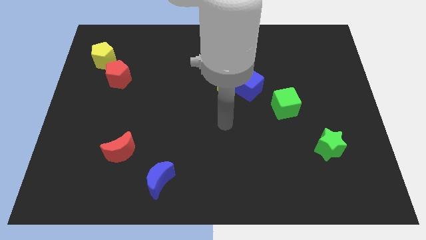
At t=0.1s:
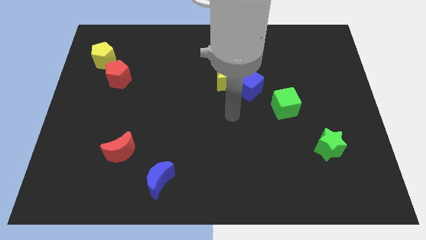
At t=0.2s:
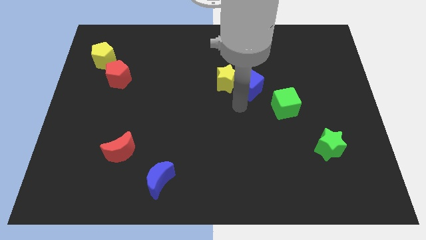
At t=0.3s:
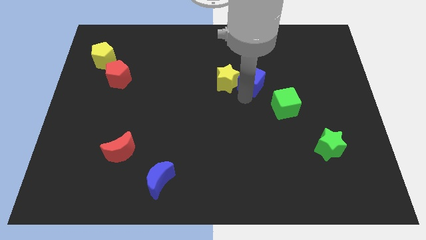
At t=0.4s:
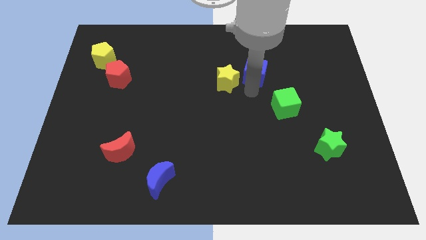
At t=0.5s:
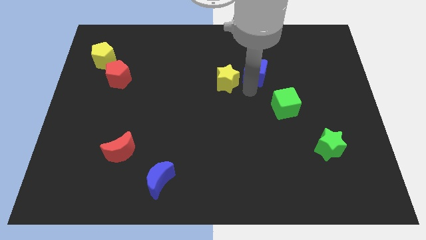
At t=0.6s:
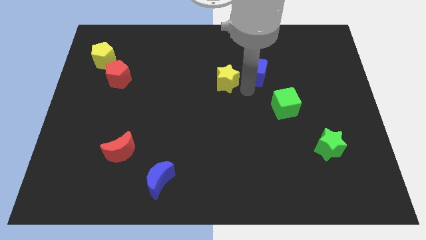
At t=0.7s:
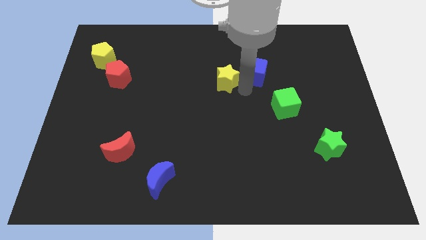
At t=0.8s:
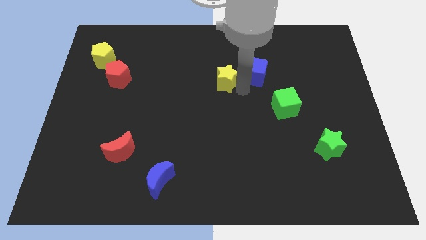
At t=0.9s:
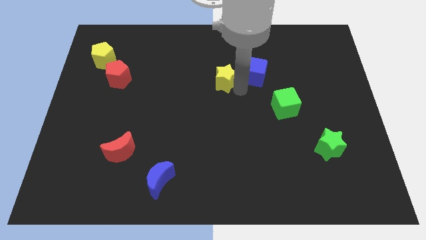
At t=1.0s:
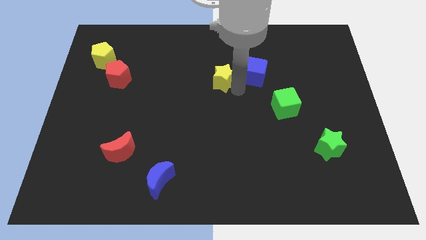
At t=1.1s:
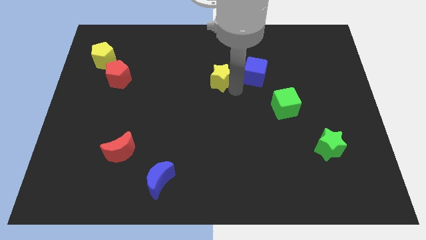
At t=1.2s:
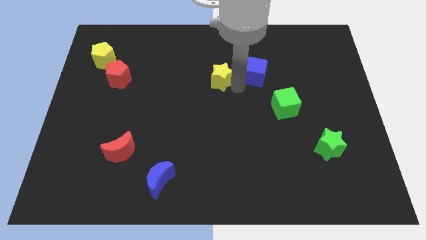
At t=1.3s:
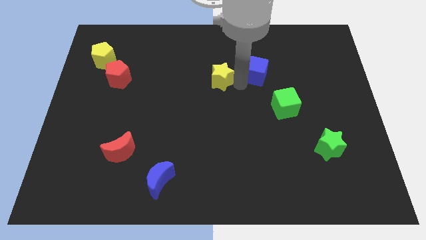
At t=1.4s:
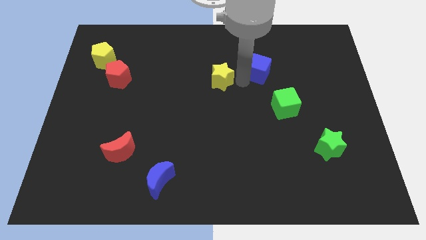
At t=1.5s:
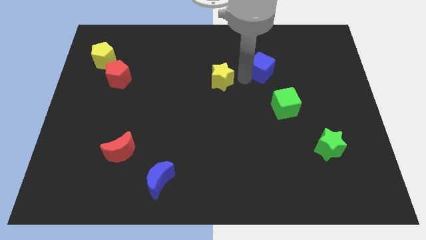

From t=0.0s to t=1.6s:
move the yellow star away from the blue cube

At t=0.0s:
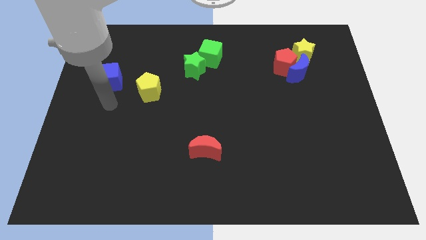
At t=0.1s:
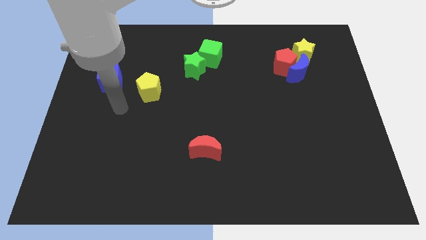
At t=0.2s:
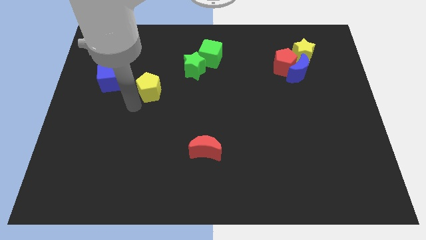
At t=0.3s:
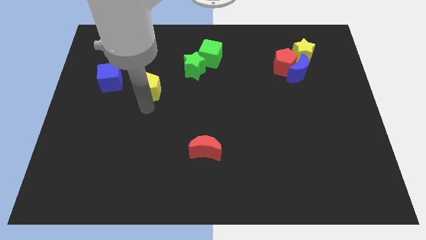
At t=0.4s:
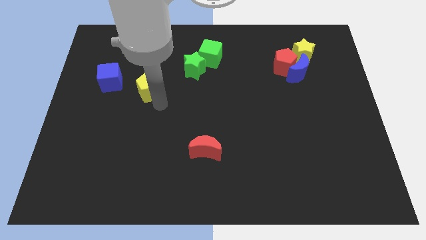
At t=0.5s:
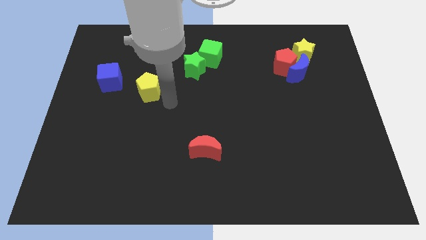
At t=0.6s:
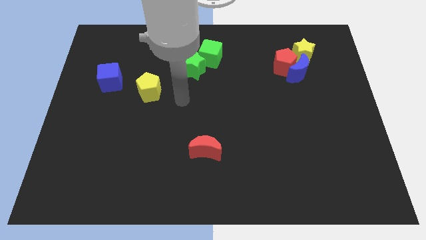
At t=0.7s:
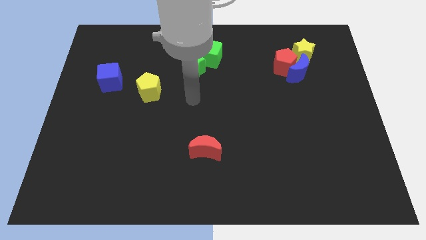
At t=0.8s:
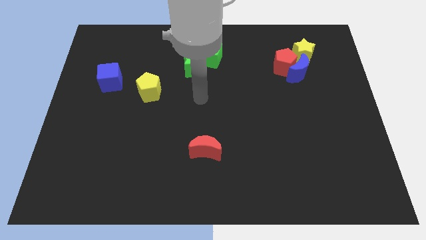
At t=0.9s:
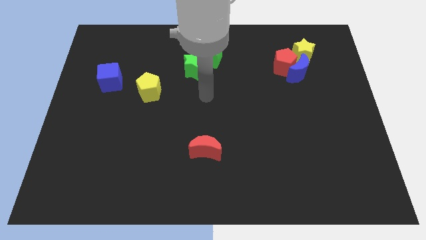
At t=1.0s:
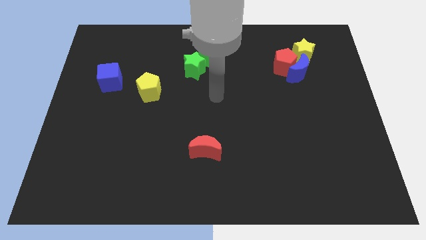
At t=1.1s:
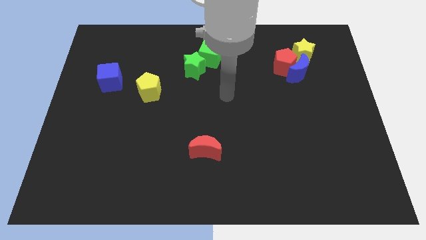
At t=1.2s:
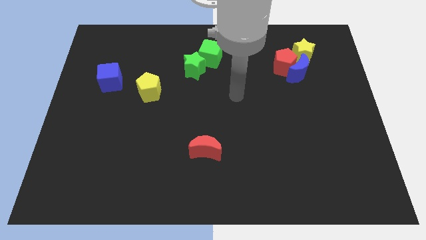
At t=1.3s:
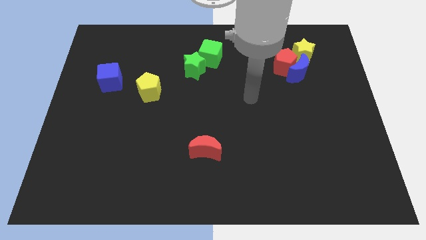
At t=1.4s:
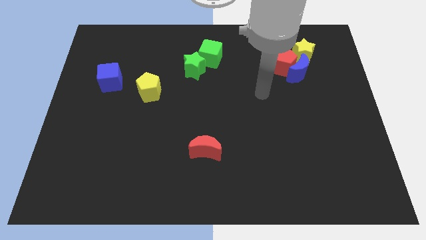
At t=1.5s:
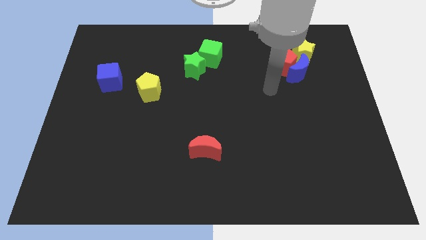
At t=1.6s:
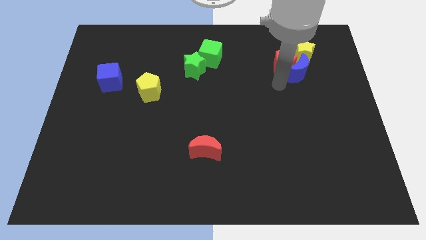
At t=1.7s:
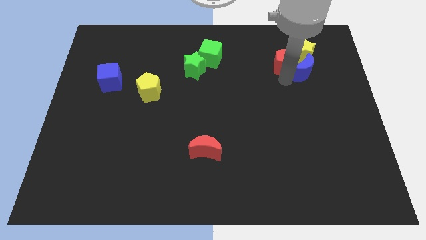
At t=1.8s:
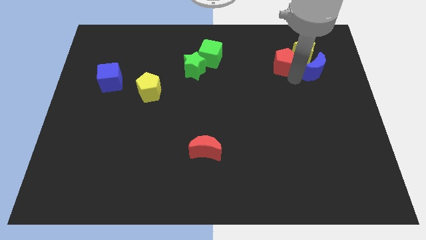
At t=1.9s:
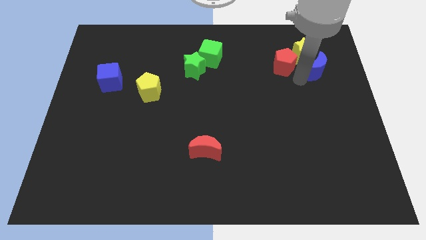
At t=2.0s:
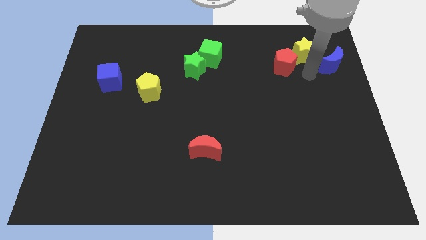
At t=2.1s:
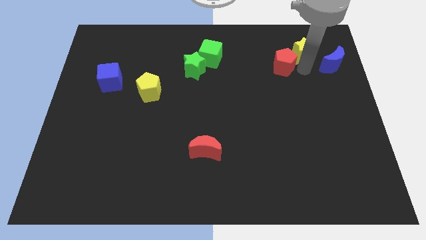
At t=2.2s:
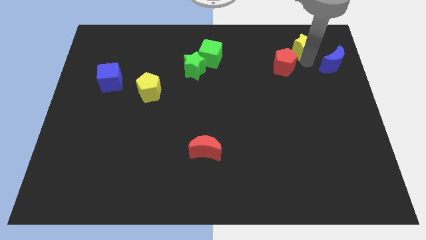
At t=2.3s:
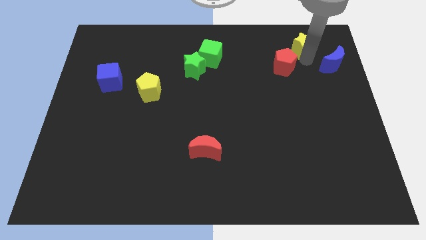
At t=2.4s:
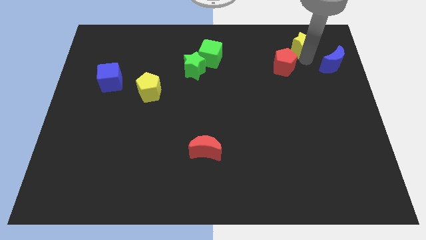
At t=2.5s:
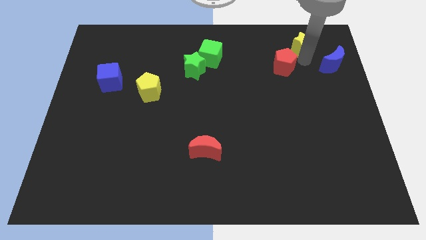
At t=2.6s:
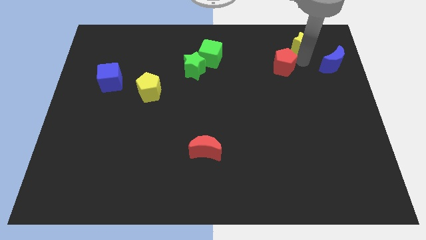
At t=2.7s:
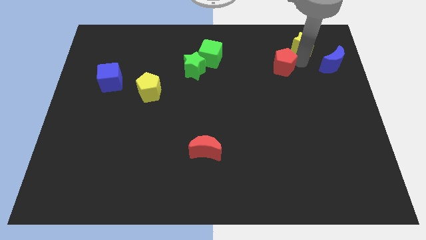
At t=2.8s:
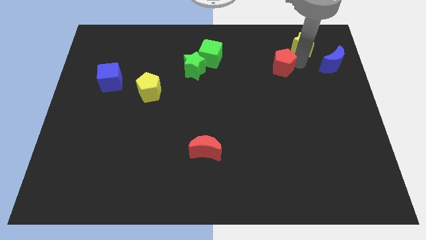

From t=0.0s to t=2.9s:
move the red pentagon away from the blue moon and yellow star

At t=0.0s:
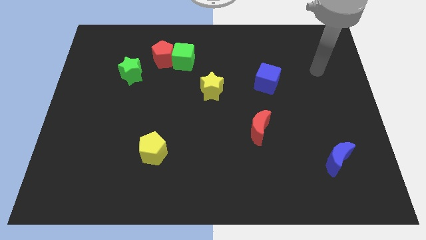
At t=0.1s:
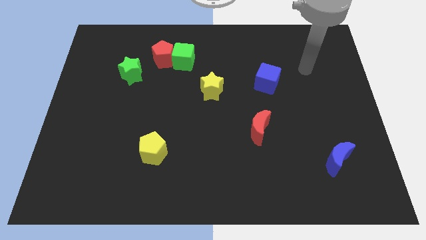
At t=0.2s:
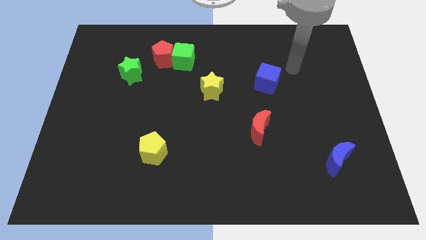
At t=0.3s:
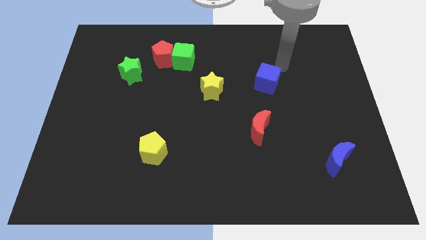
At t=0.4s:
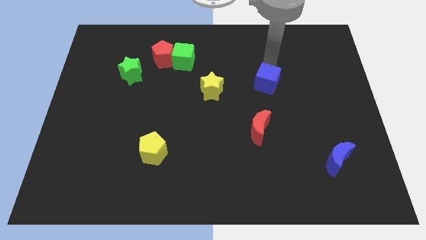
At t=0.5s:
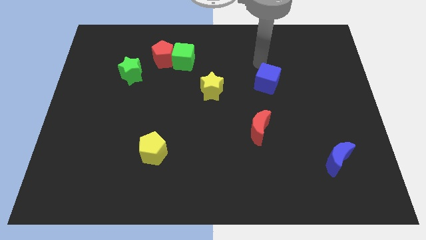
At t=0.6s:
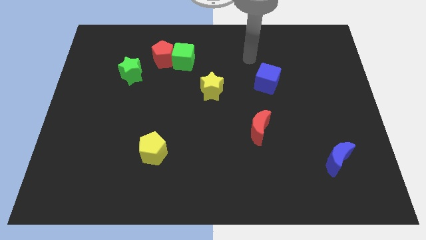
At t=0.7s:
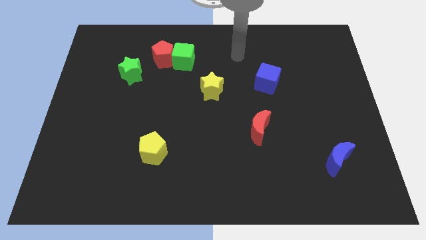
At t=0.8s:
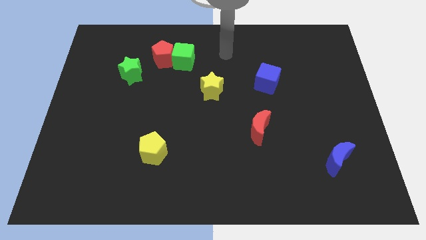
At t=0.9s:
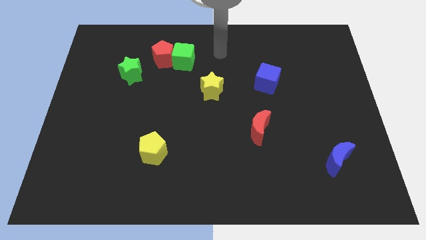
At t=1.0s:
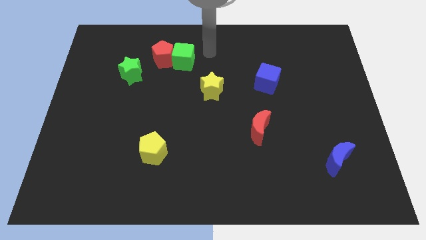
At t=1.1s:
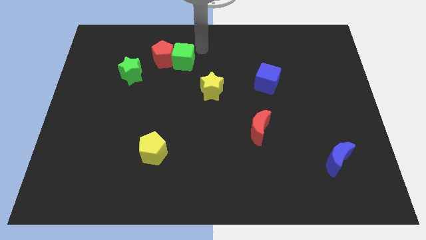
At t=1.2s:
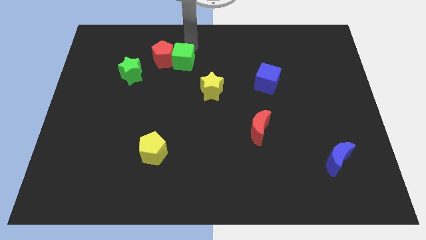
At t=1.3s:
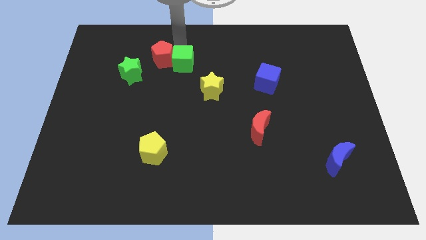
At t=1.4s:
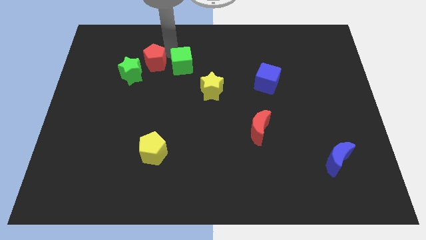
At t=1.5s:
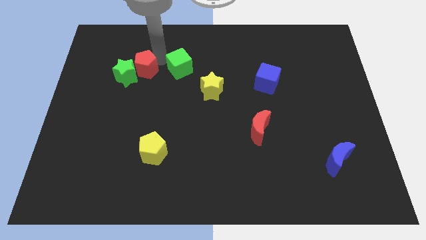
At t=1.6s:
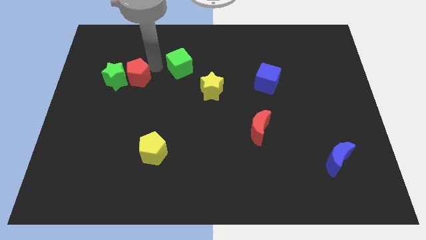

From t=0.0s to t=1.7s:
separate the green cube from the red pentagon

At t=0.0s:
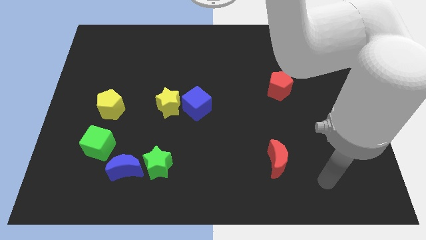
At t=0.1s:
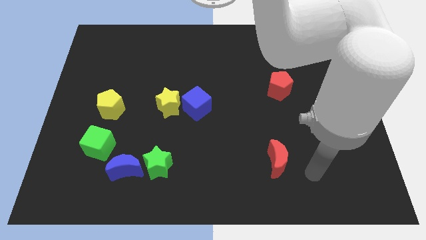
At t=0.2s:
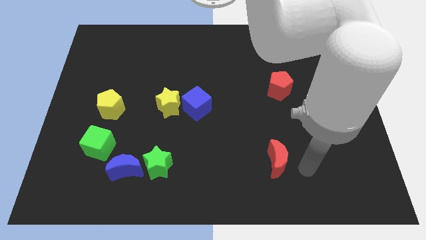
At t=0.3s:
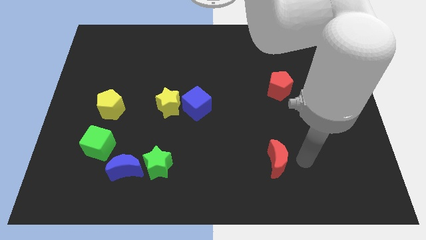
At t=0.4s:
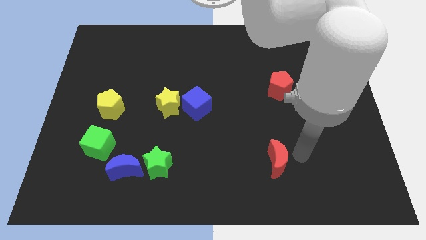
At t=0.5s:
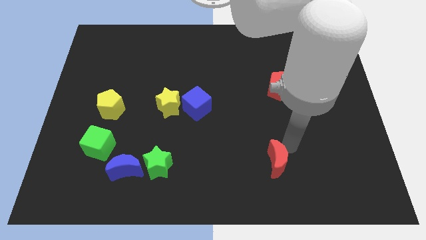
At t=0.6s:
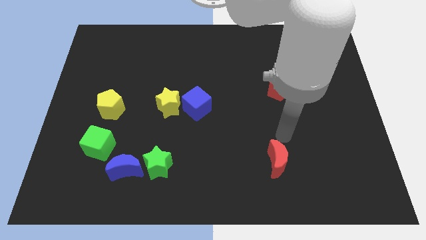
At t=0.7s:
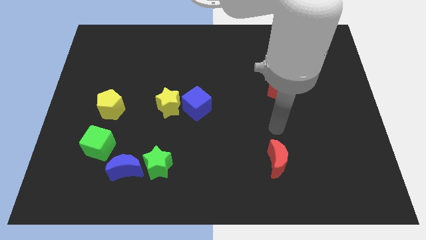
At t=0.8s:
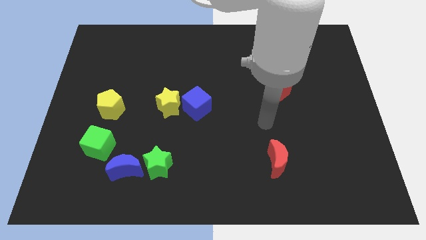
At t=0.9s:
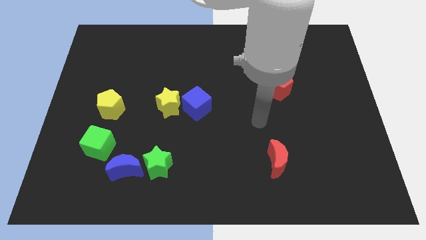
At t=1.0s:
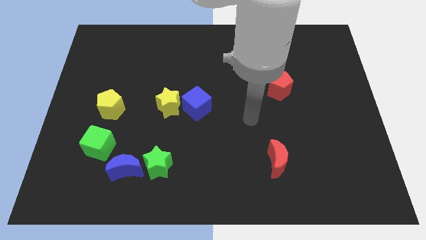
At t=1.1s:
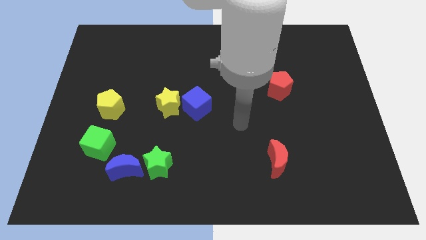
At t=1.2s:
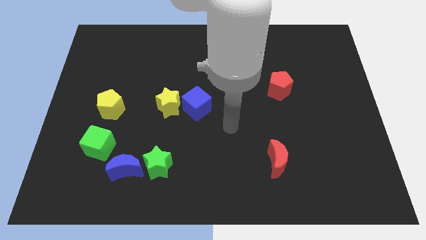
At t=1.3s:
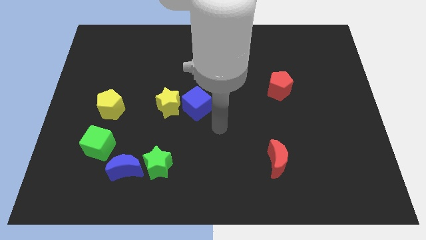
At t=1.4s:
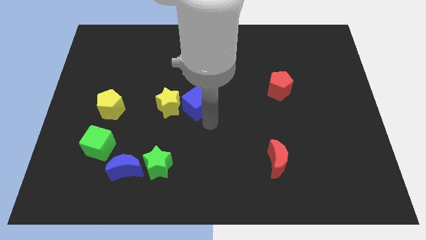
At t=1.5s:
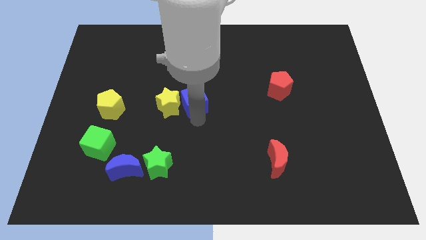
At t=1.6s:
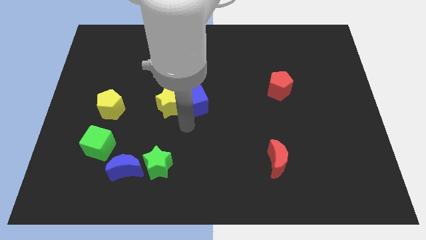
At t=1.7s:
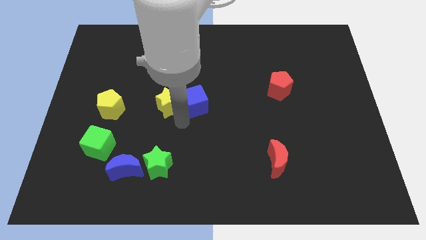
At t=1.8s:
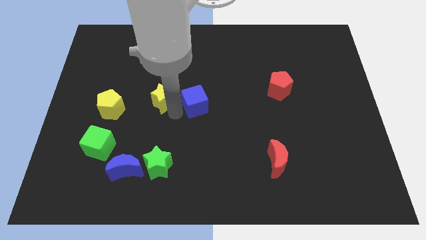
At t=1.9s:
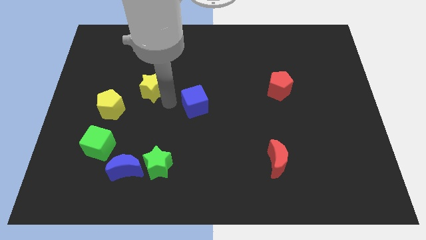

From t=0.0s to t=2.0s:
separate the blue cube from the yellow star

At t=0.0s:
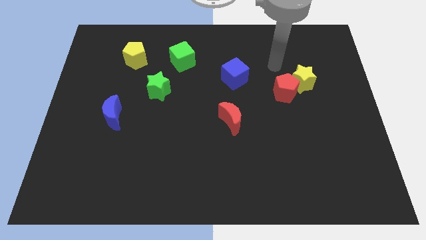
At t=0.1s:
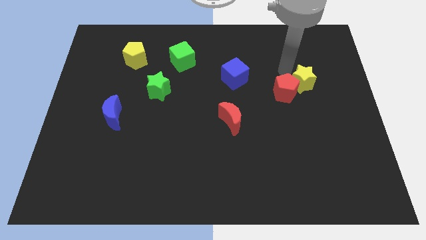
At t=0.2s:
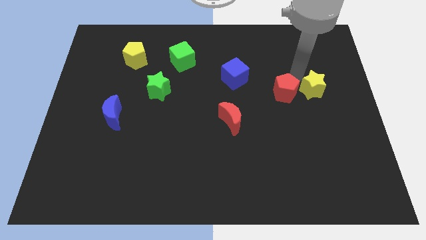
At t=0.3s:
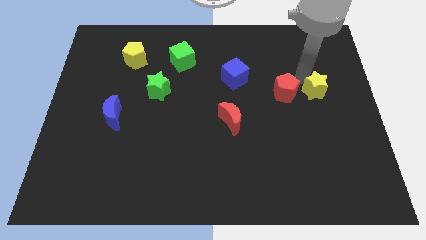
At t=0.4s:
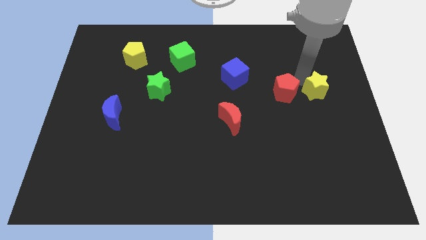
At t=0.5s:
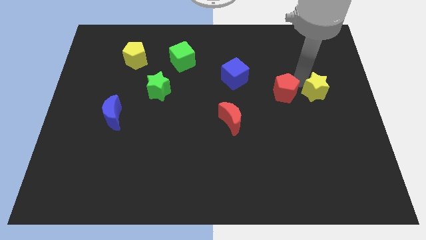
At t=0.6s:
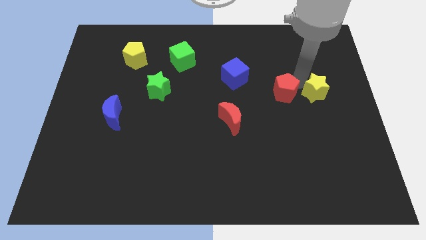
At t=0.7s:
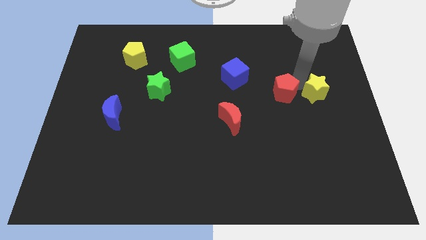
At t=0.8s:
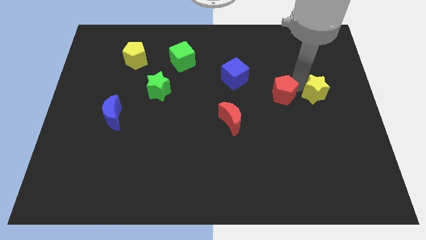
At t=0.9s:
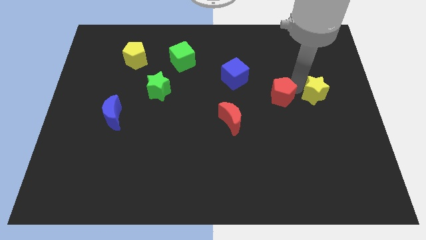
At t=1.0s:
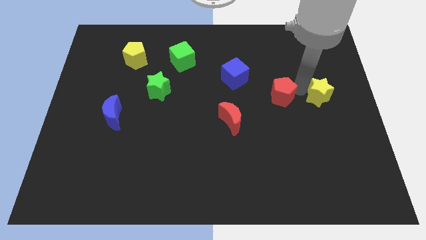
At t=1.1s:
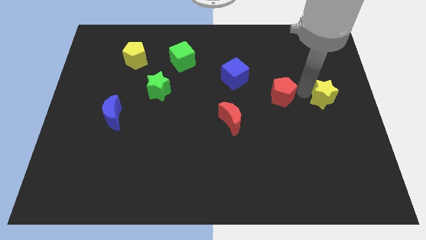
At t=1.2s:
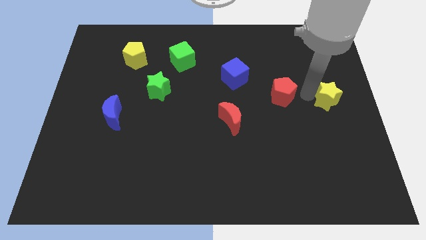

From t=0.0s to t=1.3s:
pull the red pentagon apart from the yellow star
